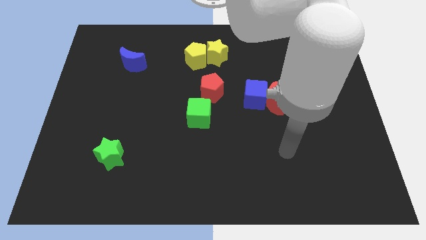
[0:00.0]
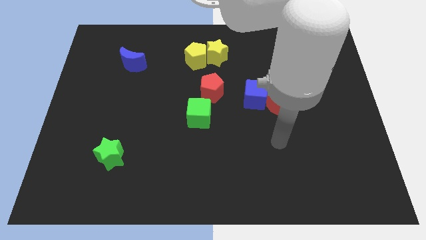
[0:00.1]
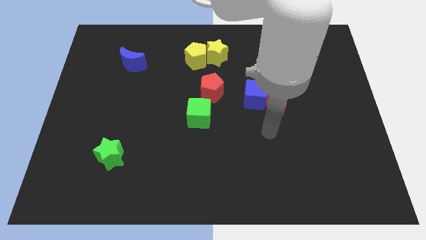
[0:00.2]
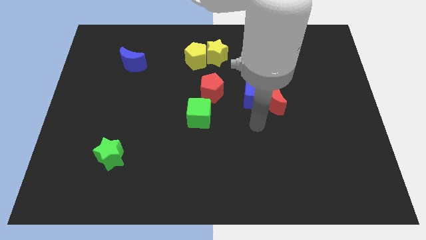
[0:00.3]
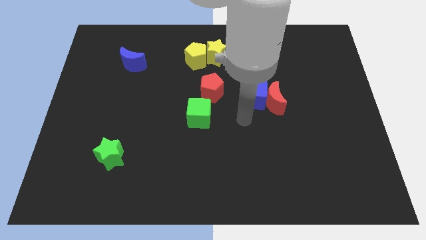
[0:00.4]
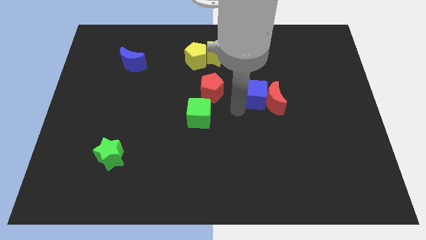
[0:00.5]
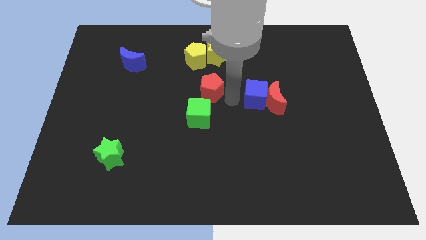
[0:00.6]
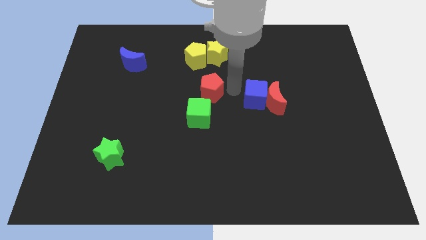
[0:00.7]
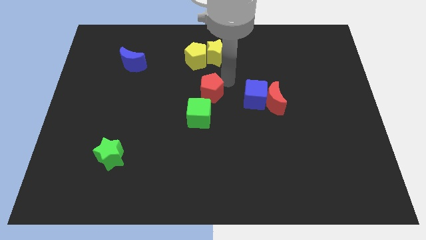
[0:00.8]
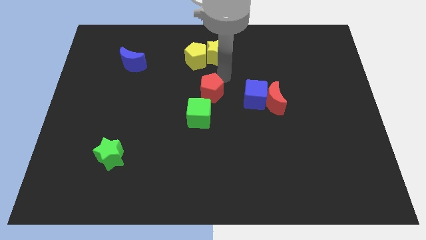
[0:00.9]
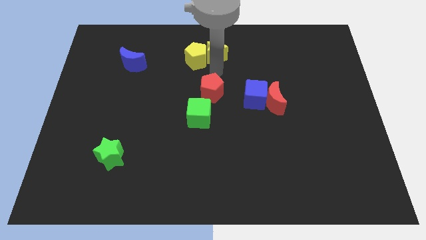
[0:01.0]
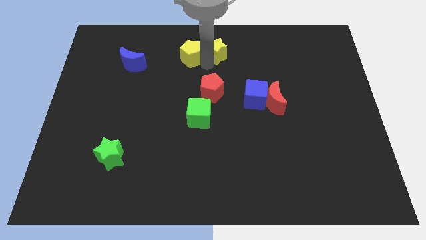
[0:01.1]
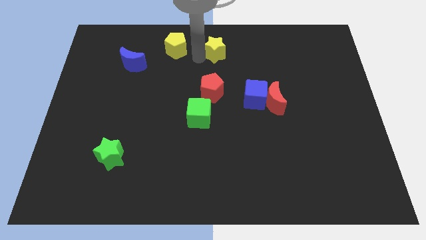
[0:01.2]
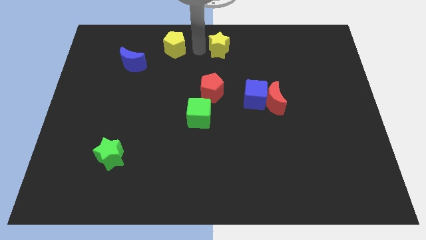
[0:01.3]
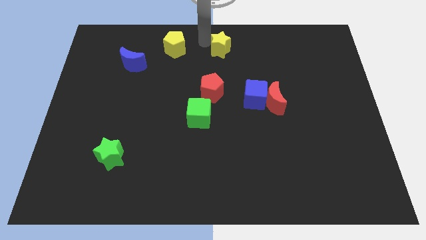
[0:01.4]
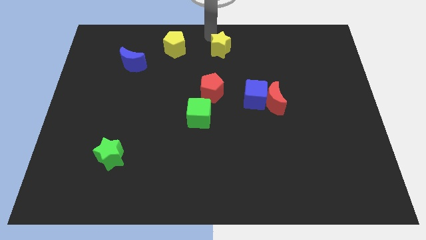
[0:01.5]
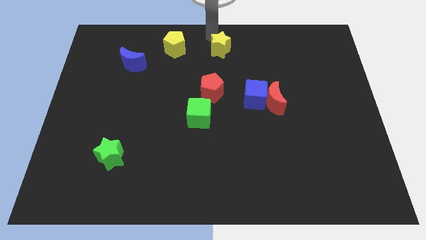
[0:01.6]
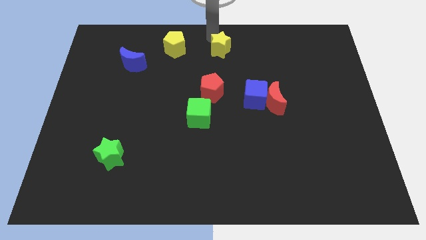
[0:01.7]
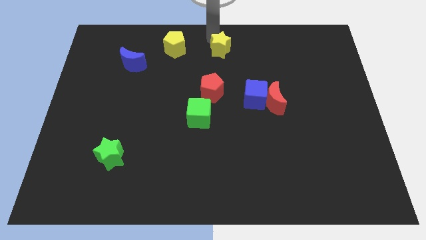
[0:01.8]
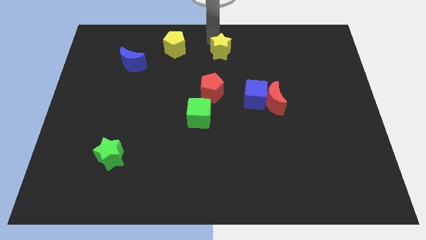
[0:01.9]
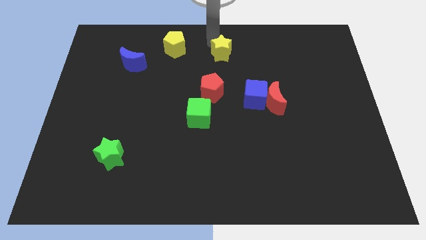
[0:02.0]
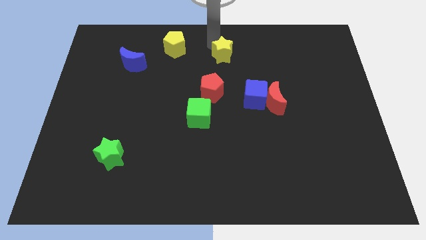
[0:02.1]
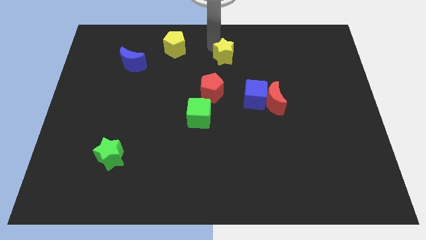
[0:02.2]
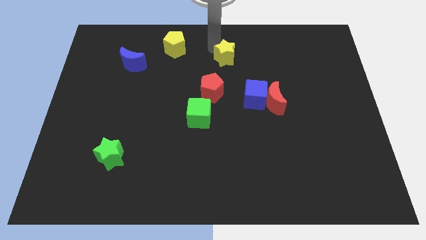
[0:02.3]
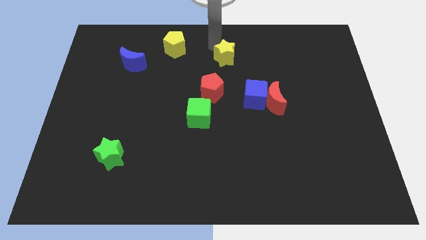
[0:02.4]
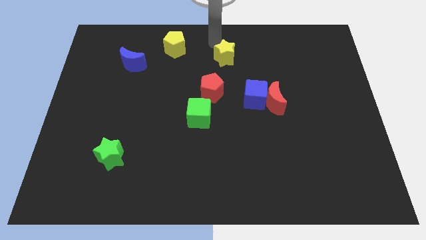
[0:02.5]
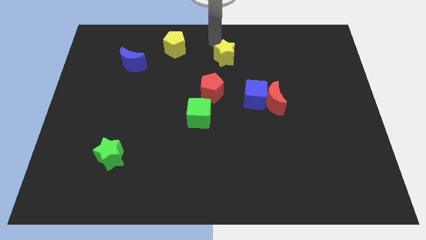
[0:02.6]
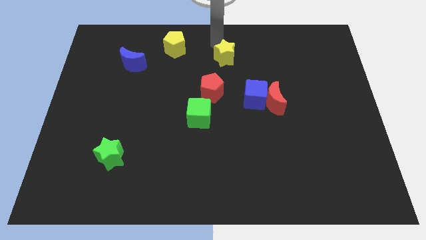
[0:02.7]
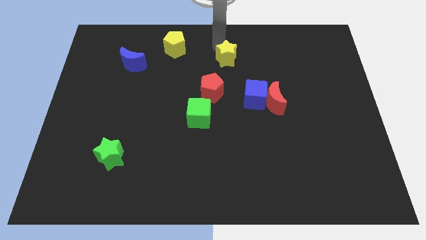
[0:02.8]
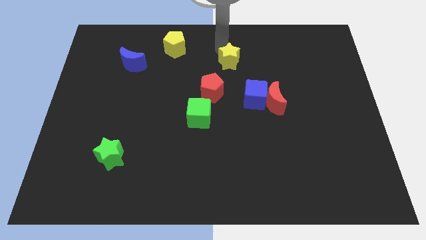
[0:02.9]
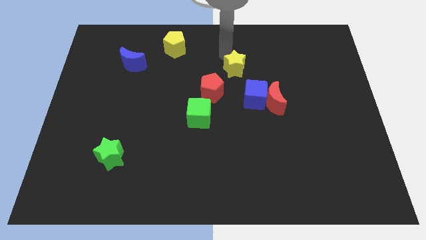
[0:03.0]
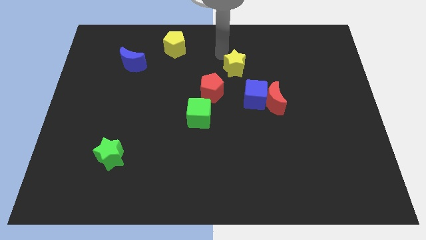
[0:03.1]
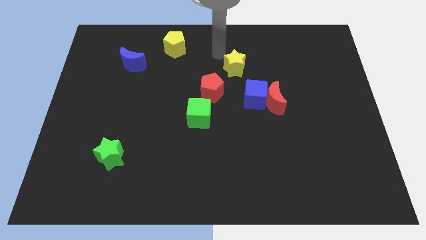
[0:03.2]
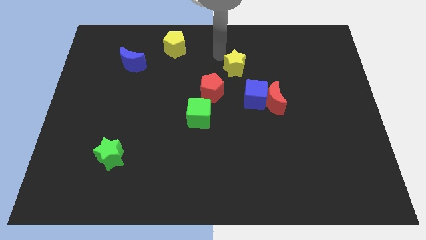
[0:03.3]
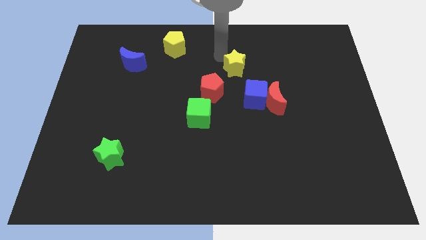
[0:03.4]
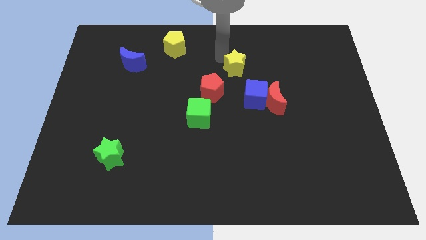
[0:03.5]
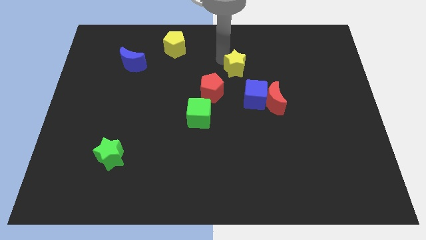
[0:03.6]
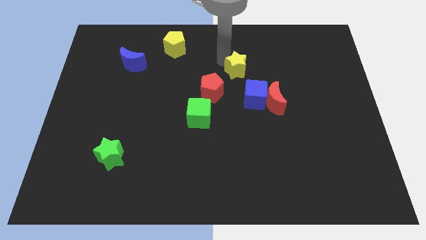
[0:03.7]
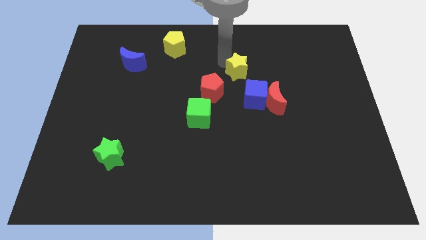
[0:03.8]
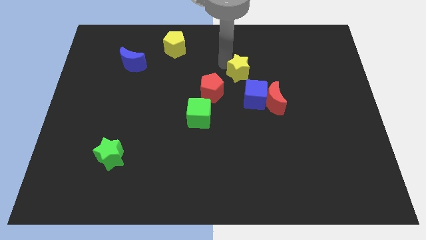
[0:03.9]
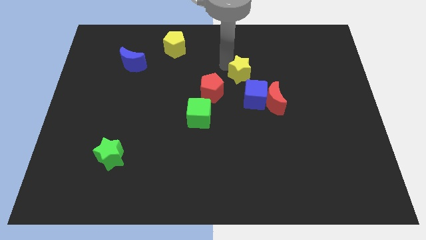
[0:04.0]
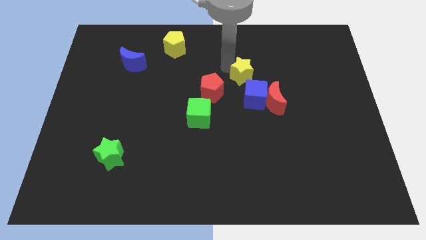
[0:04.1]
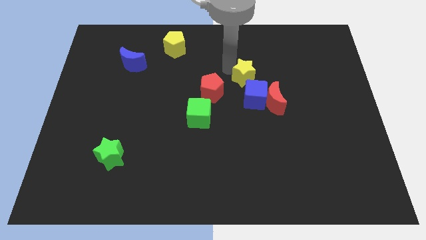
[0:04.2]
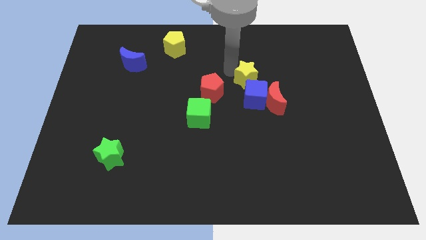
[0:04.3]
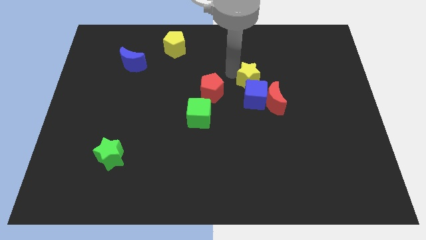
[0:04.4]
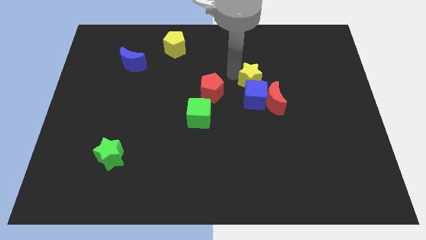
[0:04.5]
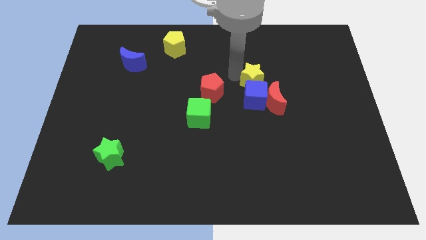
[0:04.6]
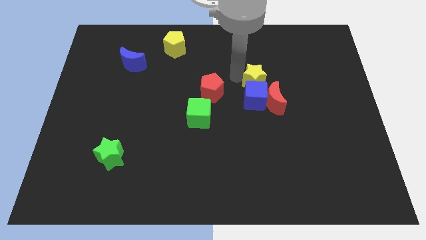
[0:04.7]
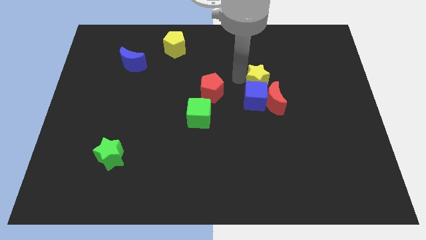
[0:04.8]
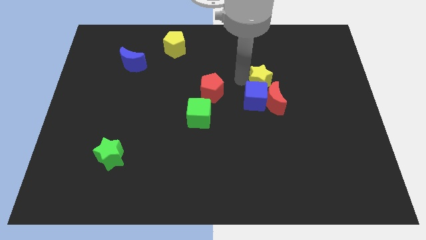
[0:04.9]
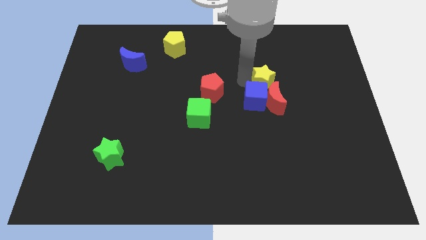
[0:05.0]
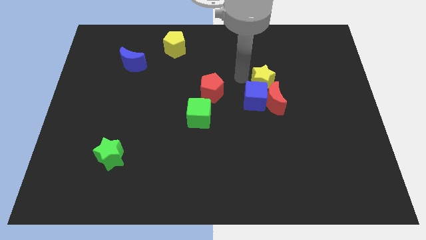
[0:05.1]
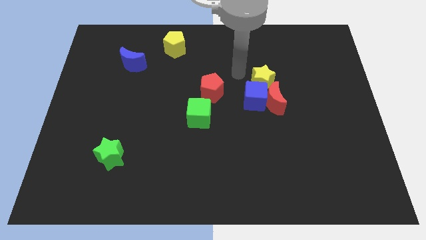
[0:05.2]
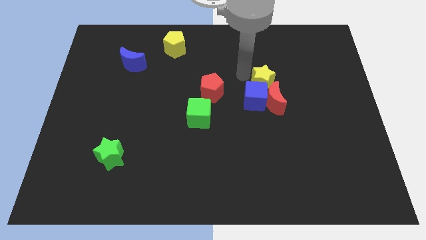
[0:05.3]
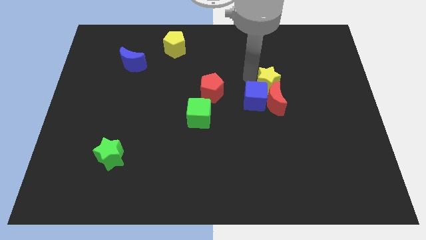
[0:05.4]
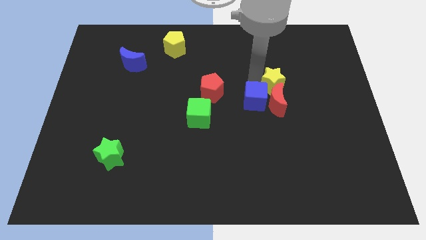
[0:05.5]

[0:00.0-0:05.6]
move the yellow star to the right side of the blue cube

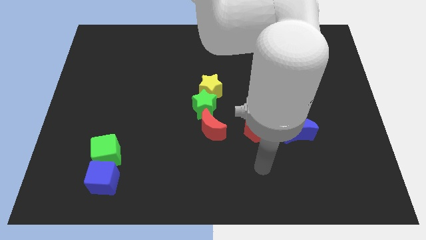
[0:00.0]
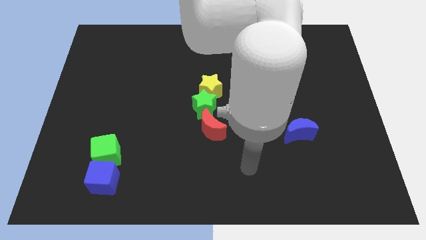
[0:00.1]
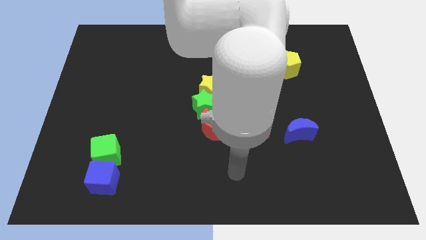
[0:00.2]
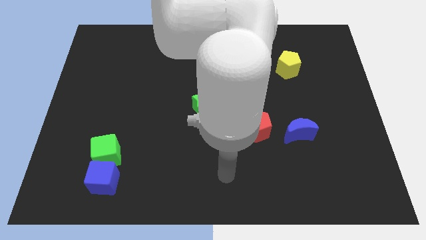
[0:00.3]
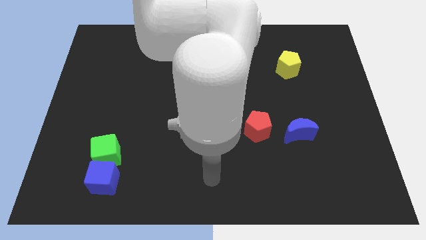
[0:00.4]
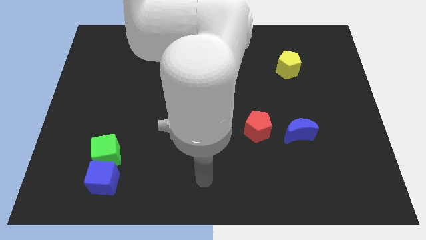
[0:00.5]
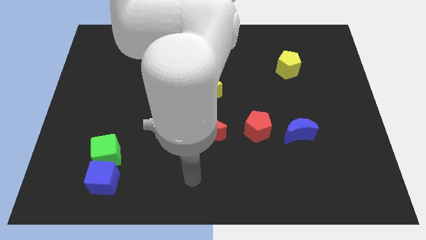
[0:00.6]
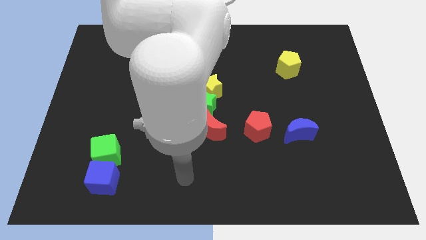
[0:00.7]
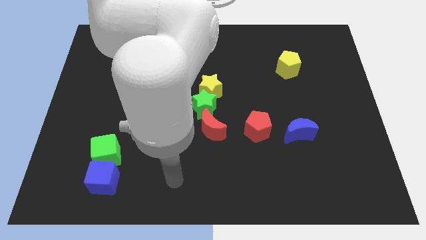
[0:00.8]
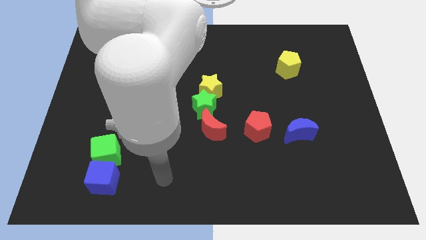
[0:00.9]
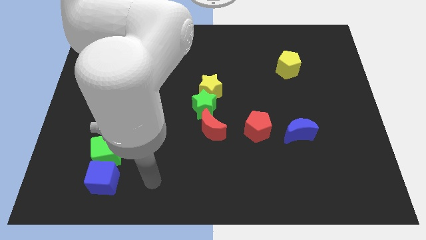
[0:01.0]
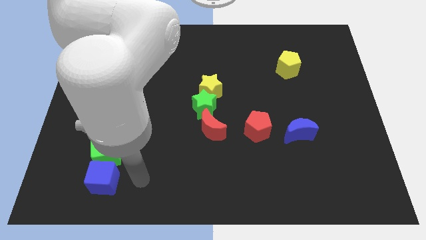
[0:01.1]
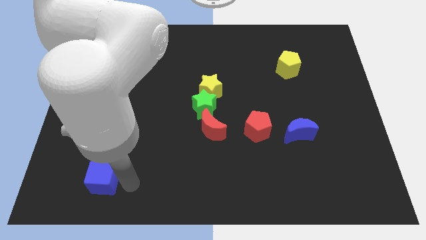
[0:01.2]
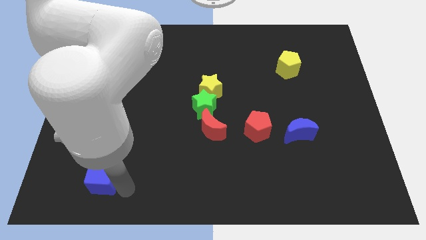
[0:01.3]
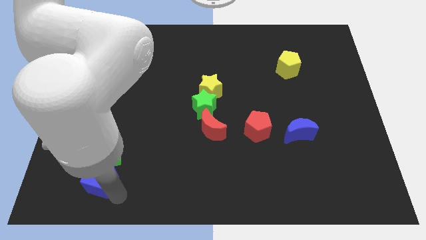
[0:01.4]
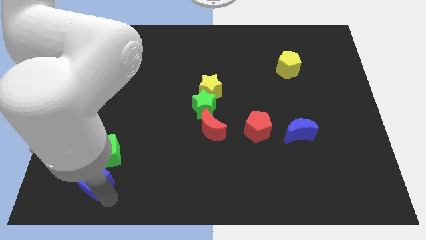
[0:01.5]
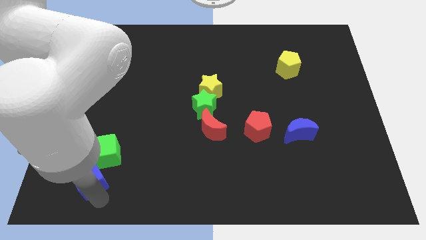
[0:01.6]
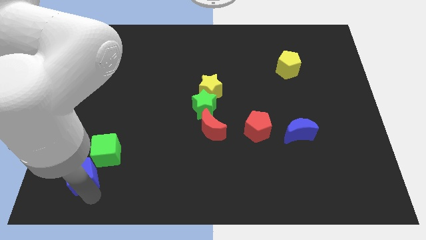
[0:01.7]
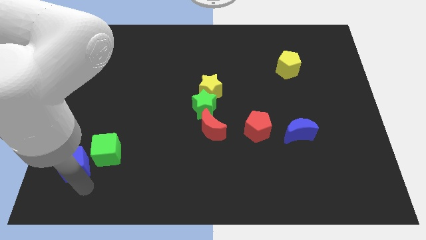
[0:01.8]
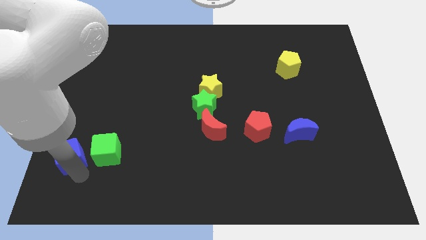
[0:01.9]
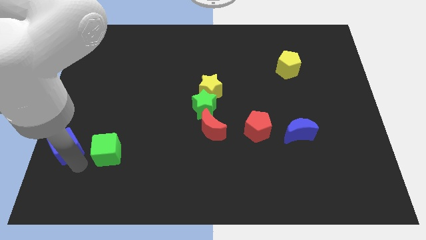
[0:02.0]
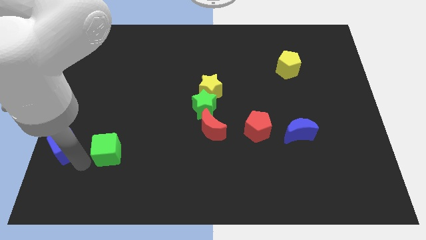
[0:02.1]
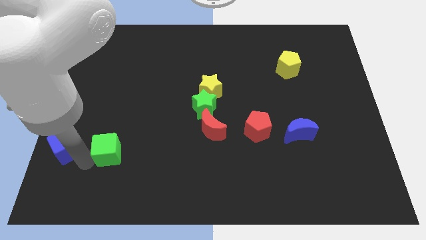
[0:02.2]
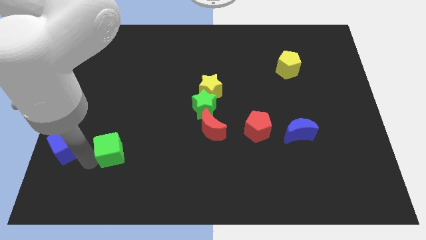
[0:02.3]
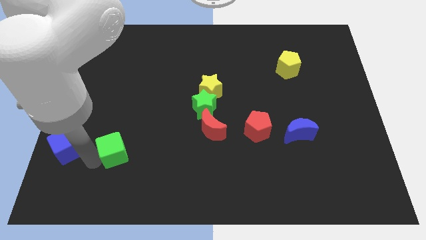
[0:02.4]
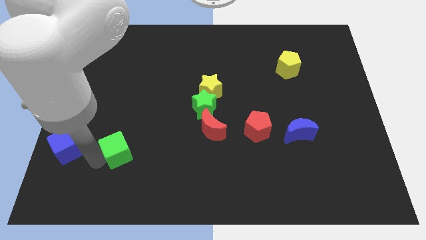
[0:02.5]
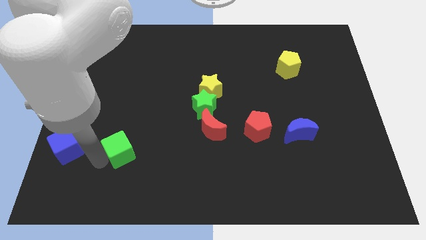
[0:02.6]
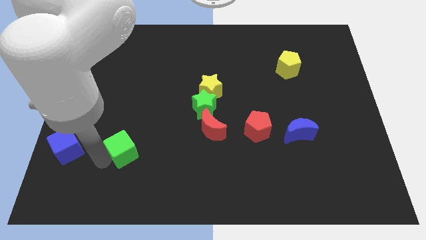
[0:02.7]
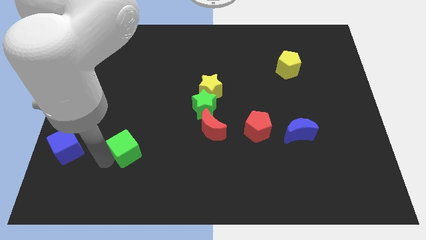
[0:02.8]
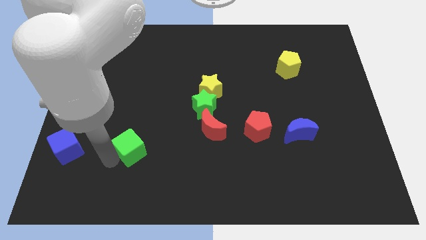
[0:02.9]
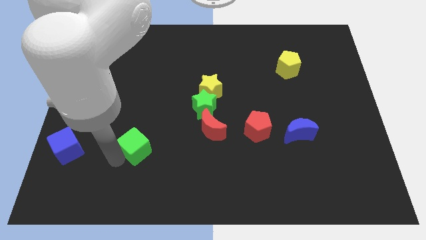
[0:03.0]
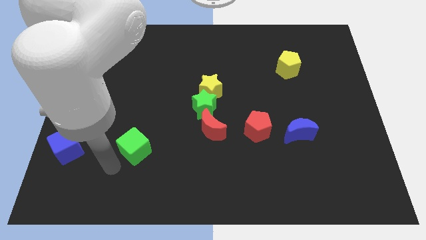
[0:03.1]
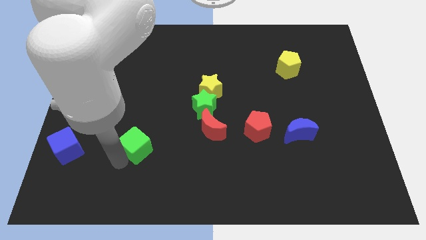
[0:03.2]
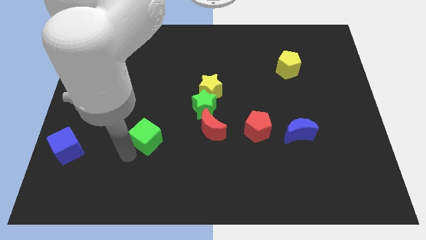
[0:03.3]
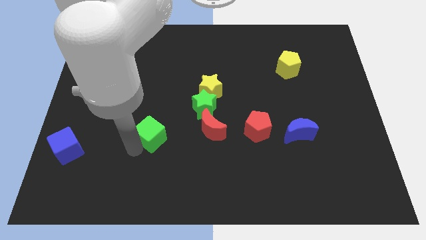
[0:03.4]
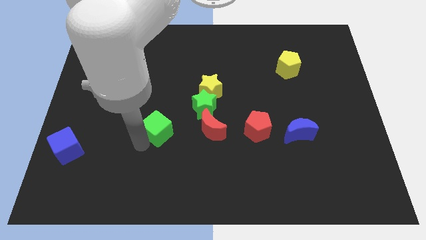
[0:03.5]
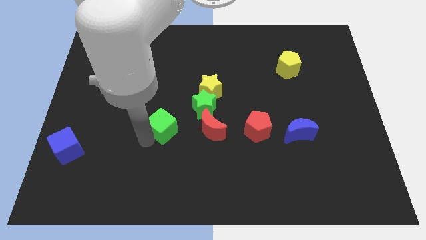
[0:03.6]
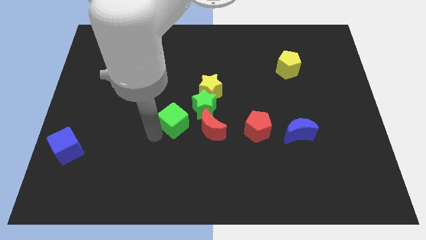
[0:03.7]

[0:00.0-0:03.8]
push the green cube to the bottom left side of the yellow star
